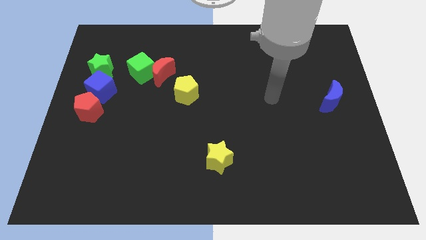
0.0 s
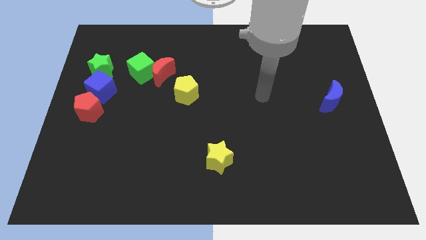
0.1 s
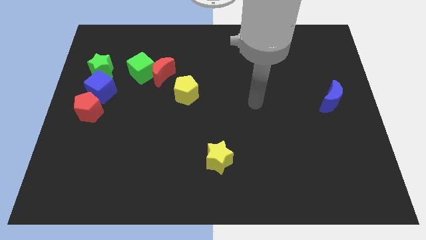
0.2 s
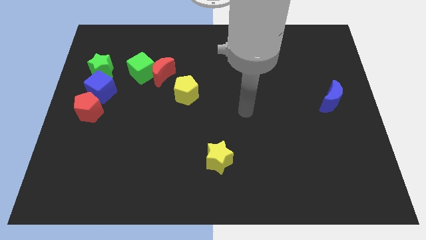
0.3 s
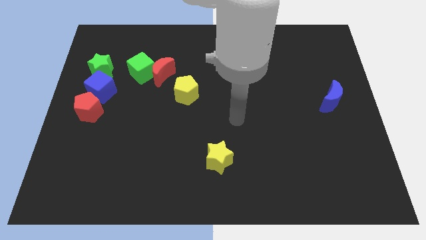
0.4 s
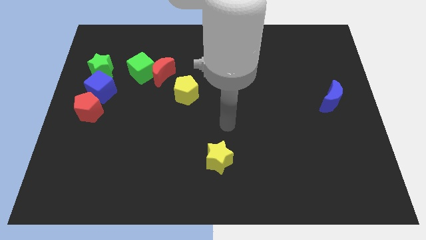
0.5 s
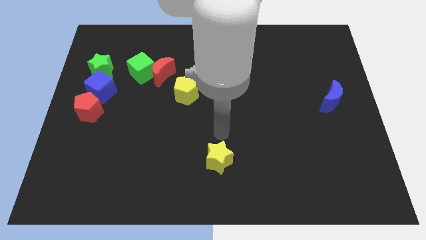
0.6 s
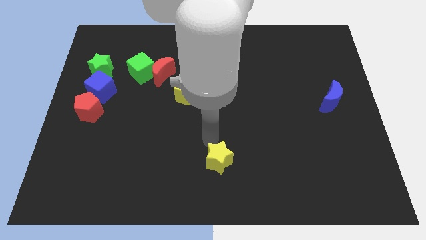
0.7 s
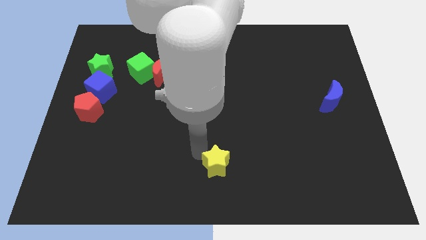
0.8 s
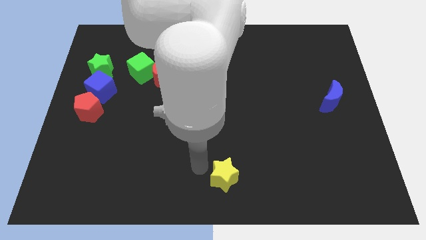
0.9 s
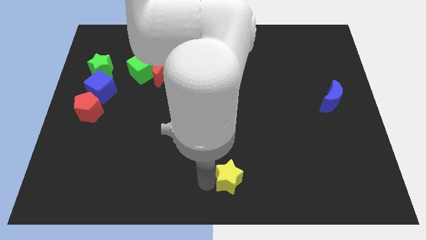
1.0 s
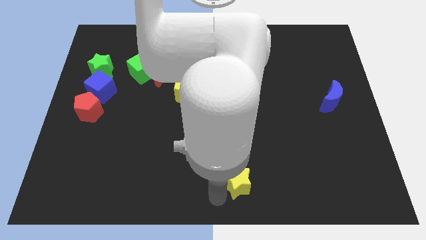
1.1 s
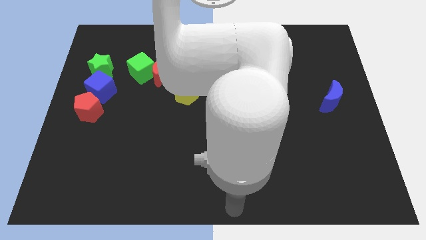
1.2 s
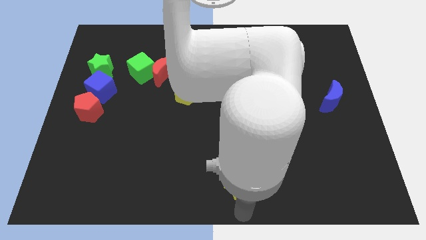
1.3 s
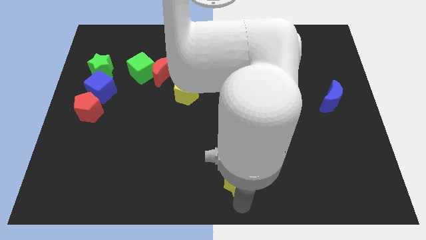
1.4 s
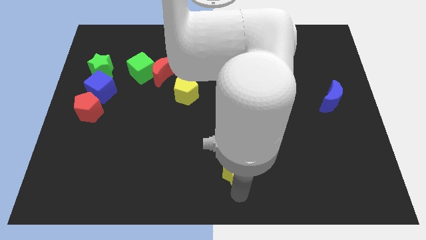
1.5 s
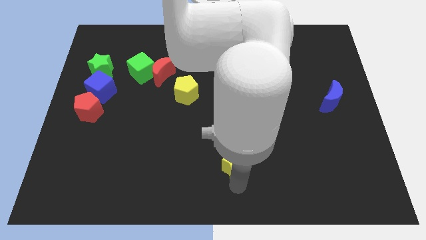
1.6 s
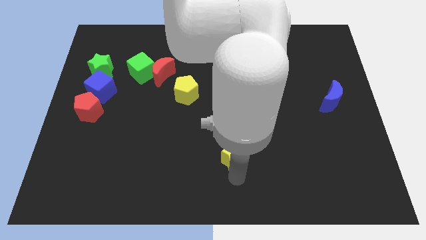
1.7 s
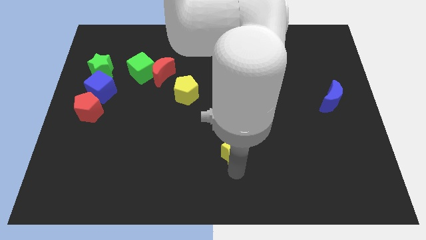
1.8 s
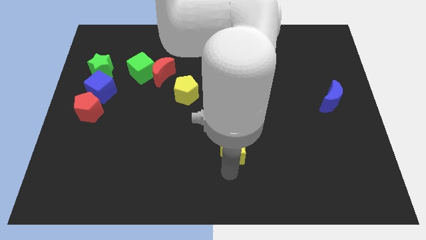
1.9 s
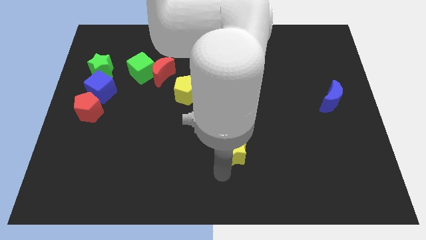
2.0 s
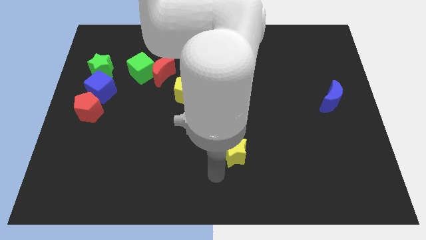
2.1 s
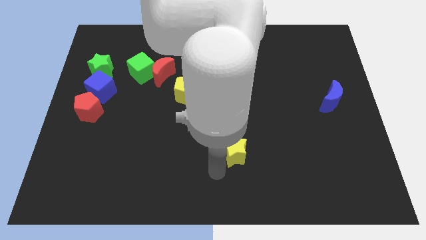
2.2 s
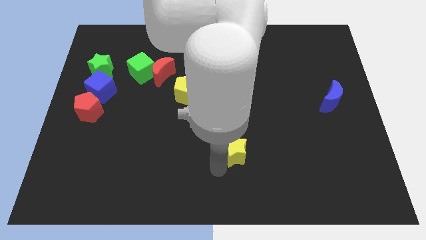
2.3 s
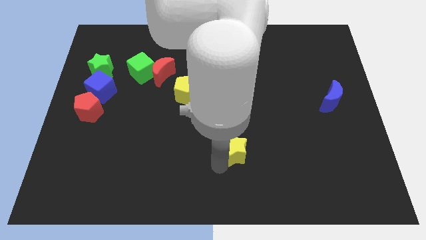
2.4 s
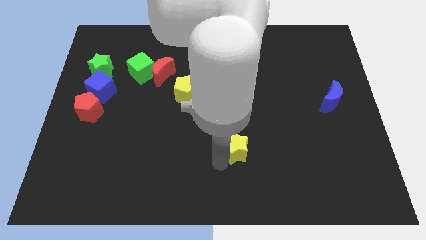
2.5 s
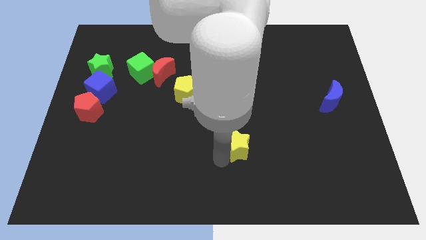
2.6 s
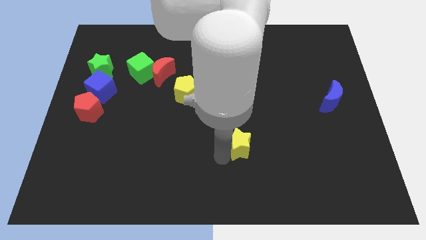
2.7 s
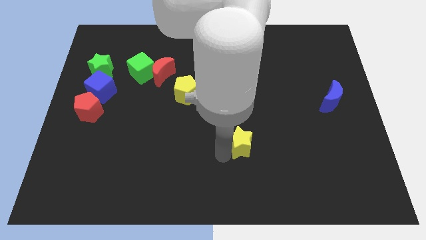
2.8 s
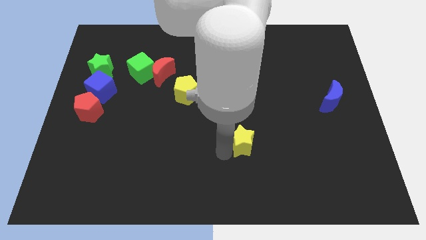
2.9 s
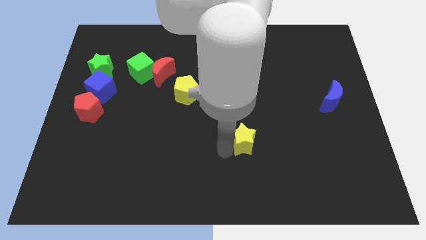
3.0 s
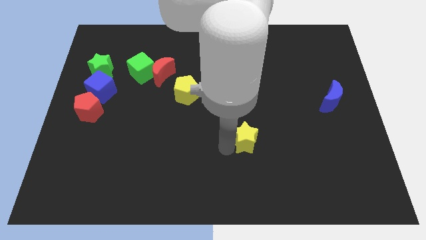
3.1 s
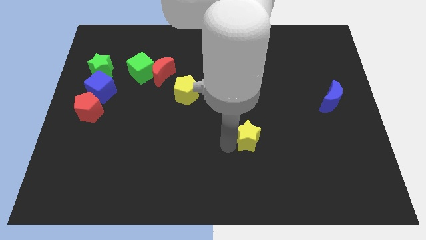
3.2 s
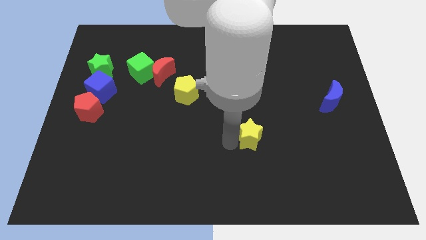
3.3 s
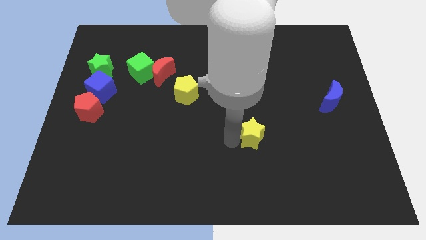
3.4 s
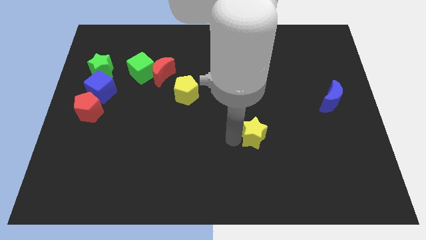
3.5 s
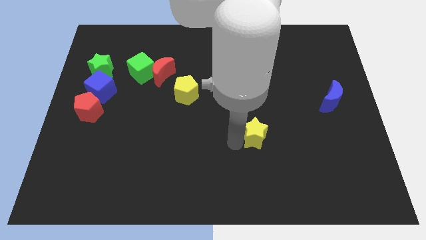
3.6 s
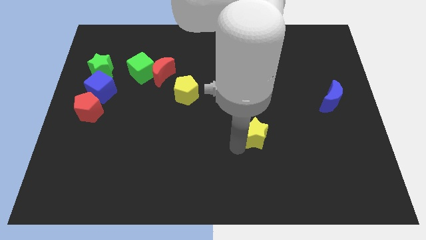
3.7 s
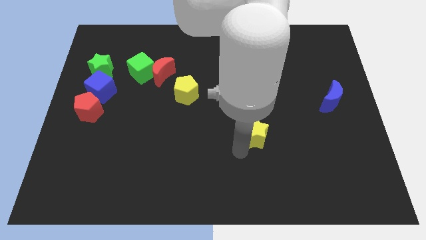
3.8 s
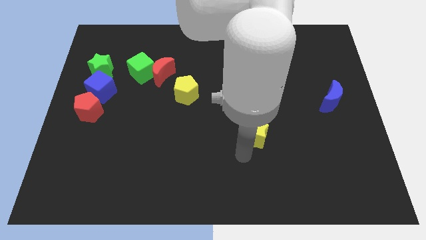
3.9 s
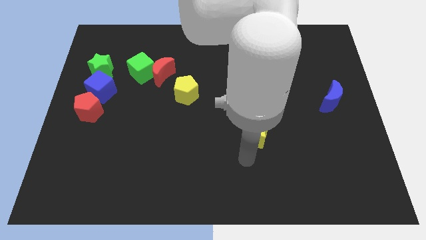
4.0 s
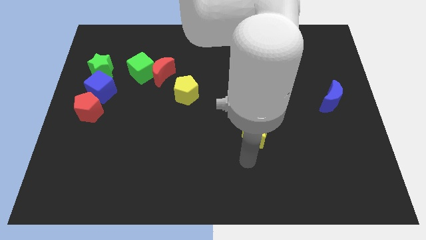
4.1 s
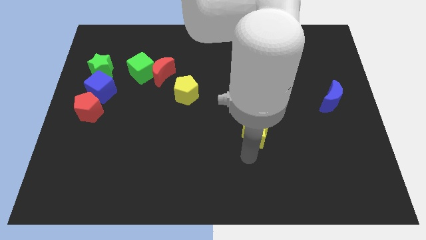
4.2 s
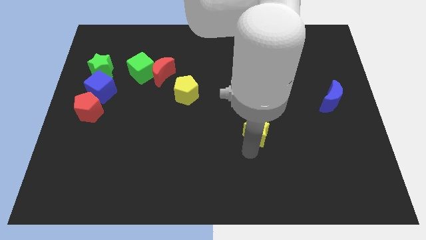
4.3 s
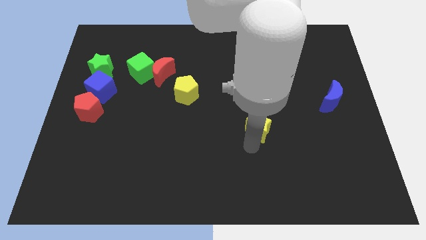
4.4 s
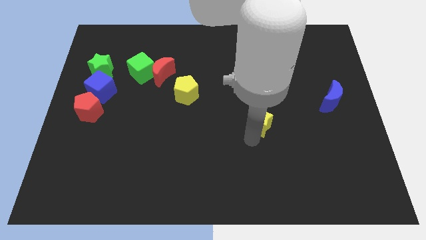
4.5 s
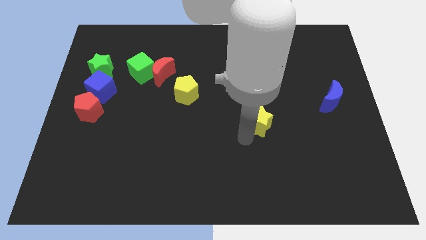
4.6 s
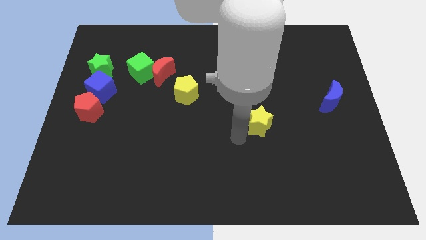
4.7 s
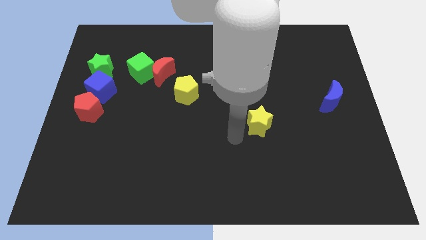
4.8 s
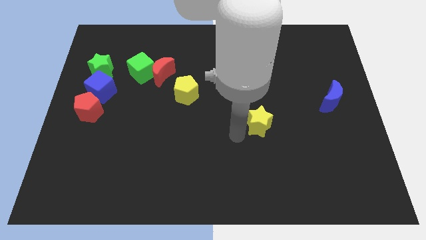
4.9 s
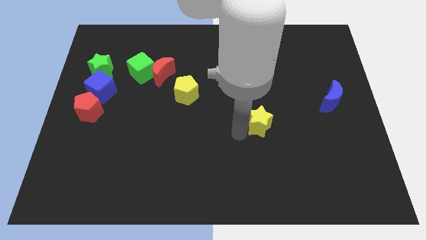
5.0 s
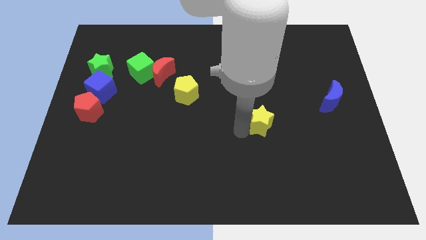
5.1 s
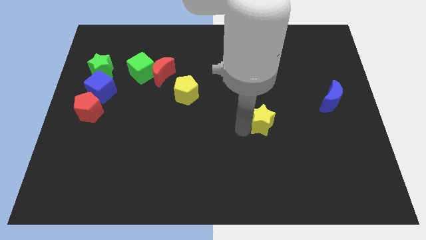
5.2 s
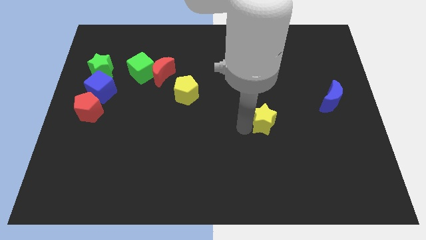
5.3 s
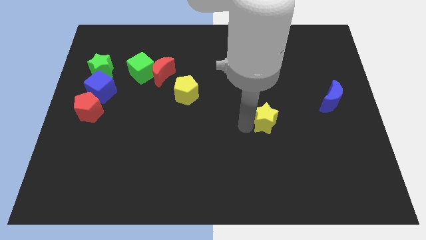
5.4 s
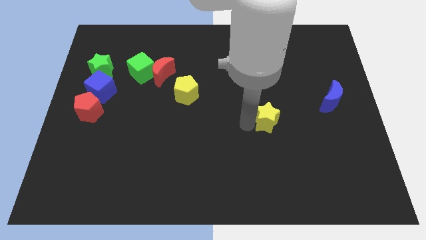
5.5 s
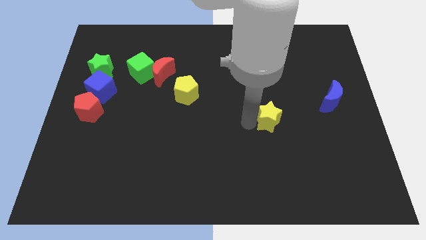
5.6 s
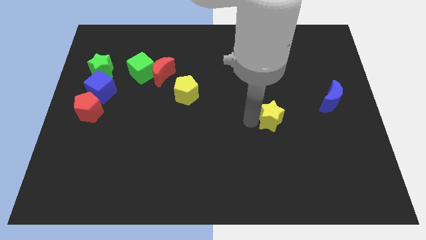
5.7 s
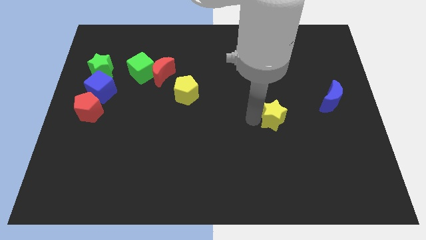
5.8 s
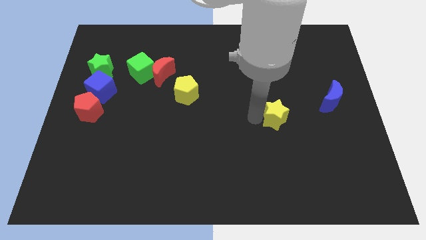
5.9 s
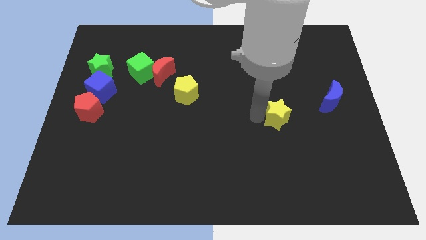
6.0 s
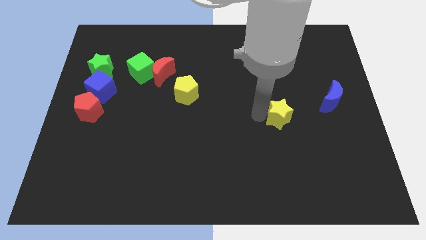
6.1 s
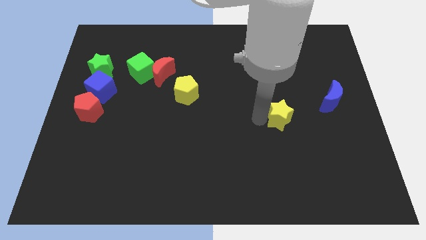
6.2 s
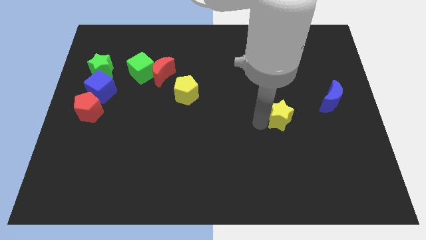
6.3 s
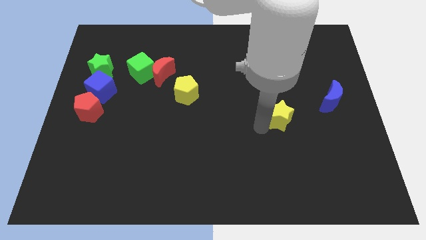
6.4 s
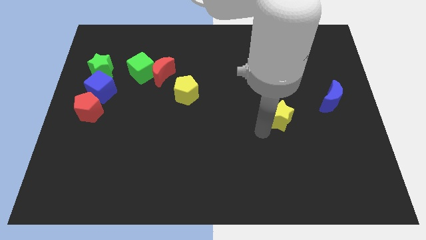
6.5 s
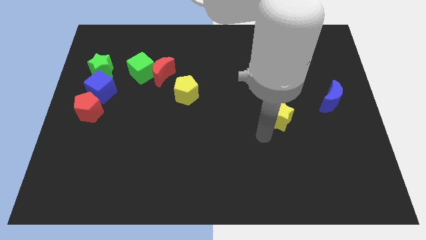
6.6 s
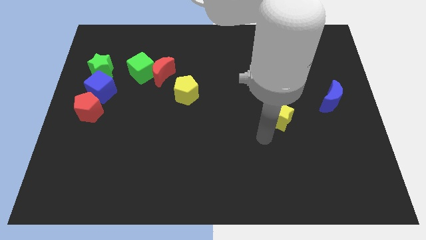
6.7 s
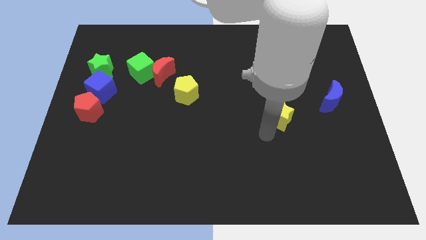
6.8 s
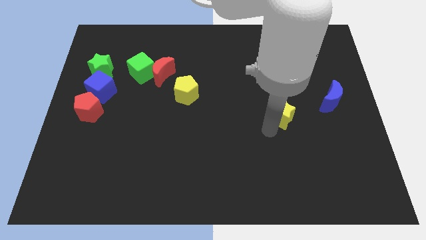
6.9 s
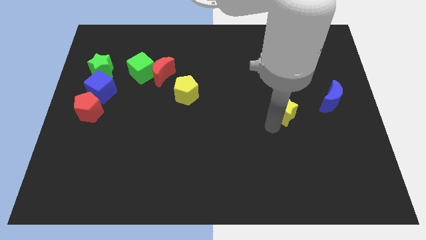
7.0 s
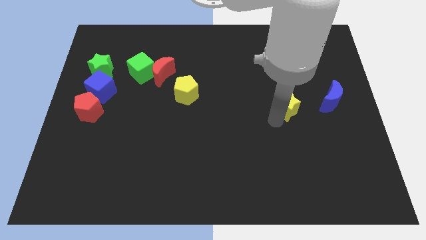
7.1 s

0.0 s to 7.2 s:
push the yellow star up and right

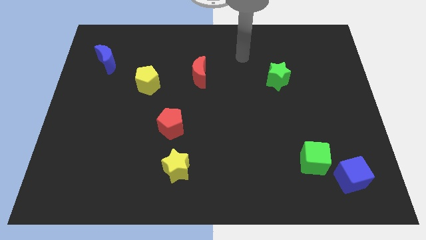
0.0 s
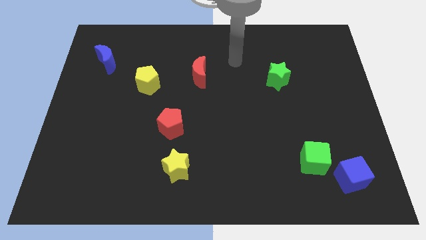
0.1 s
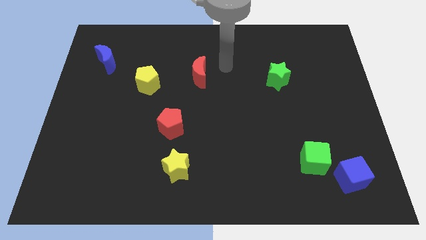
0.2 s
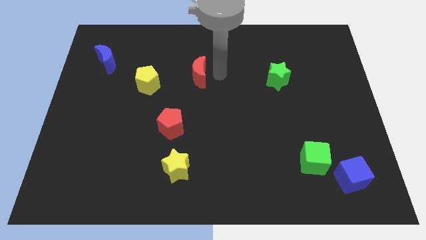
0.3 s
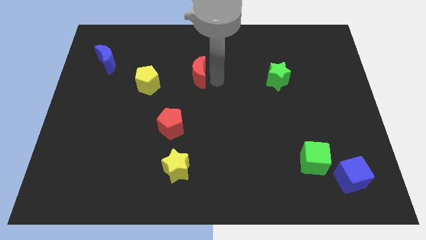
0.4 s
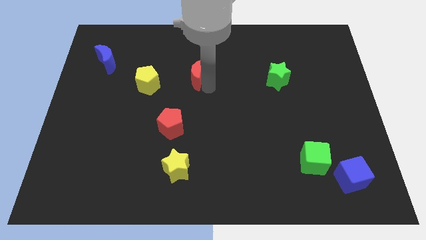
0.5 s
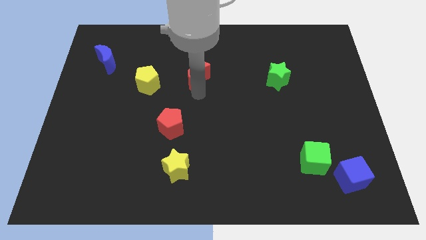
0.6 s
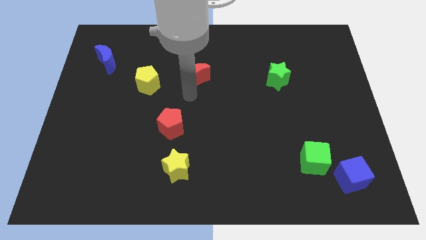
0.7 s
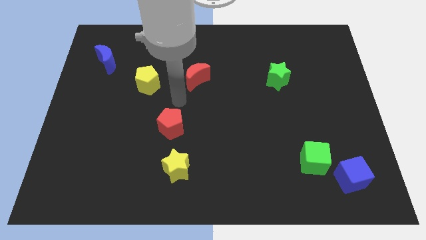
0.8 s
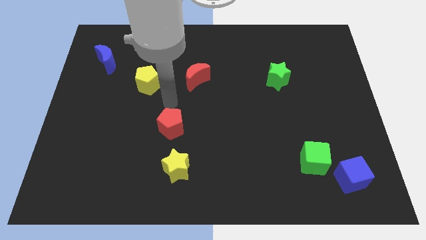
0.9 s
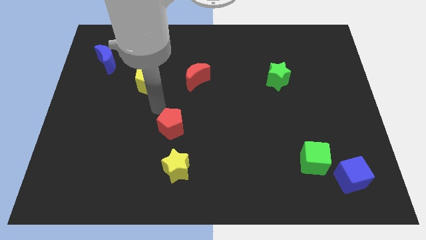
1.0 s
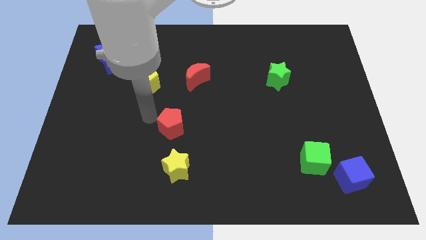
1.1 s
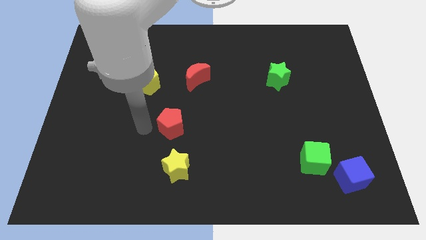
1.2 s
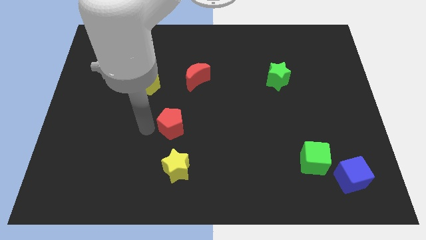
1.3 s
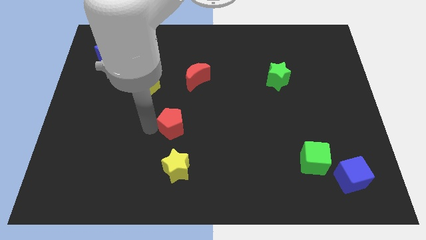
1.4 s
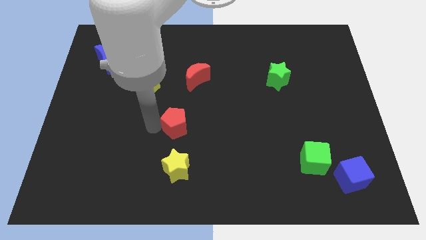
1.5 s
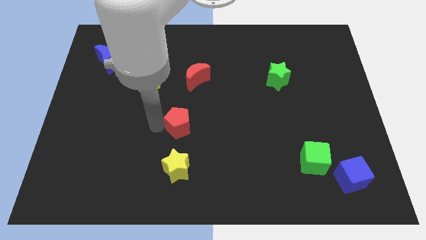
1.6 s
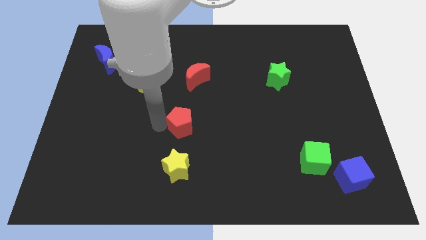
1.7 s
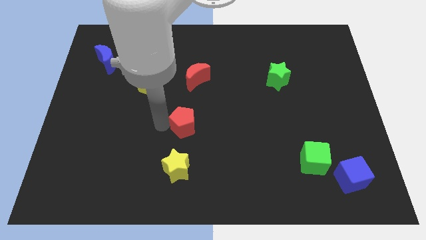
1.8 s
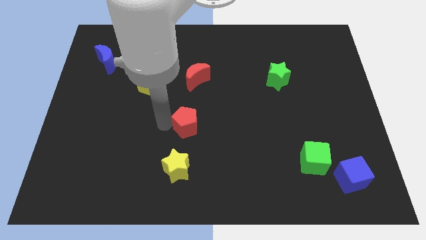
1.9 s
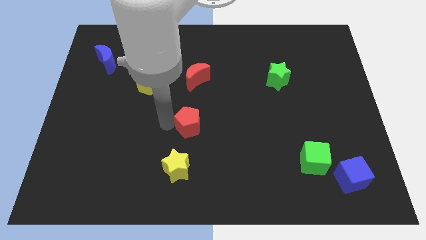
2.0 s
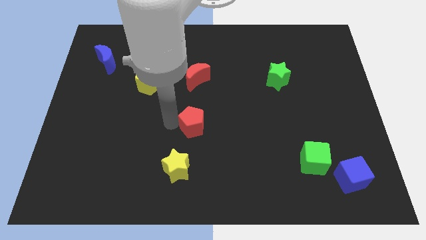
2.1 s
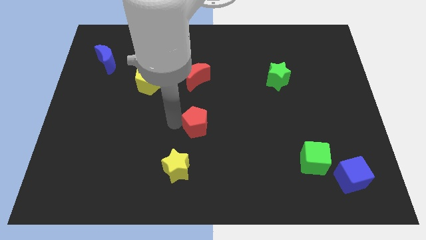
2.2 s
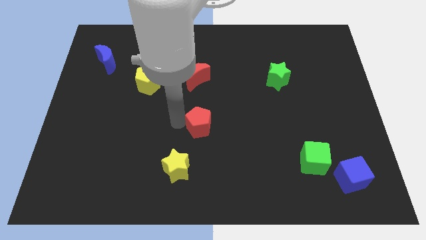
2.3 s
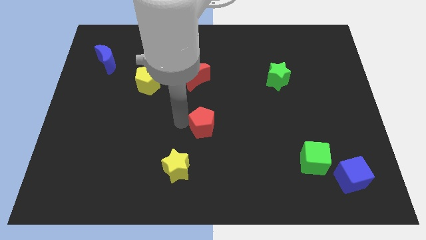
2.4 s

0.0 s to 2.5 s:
slide the red pentagon slightly right
